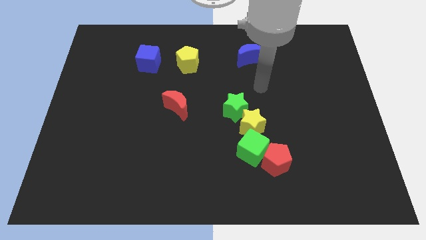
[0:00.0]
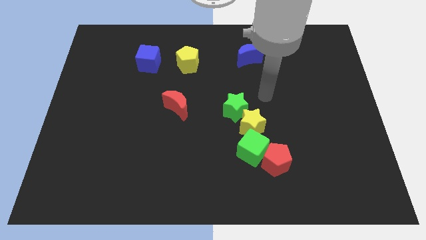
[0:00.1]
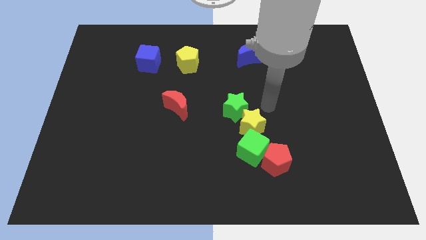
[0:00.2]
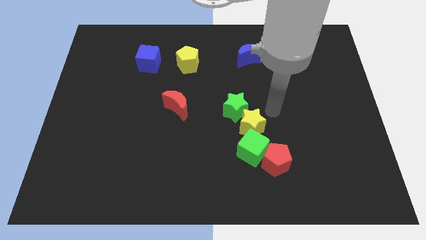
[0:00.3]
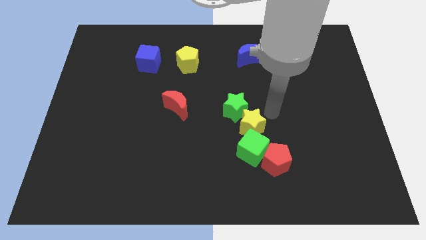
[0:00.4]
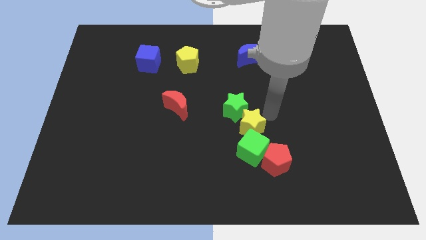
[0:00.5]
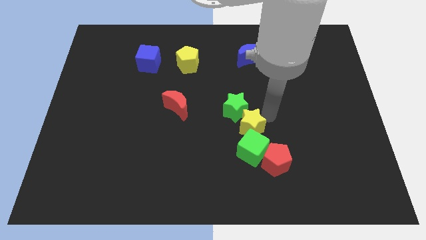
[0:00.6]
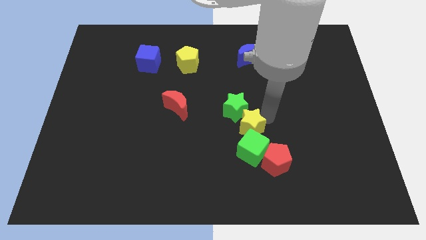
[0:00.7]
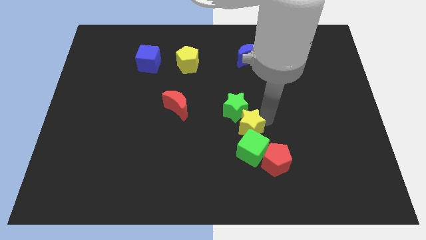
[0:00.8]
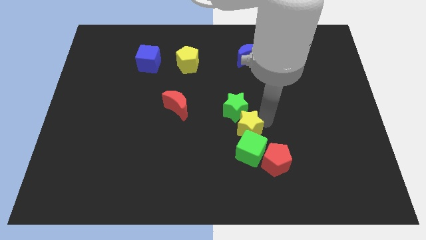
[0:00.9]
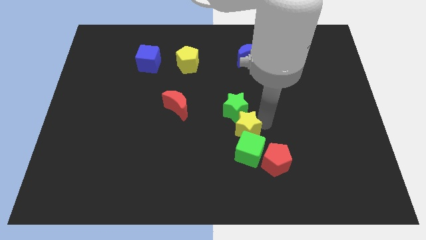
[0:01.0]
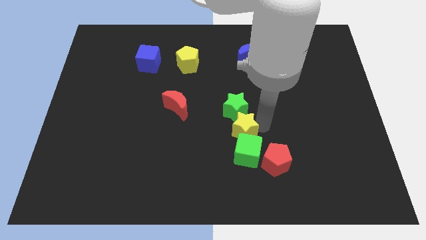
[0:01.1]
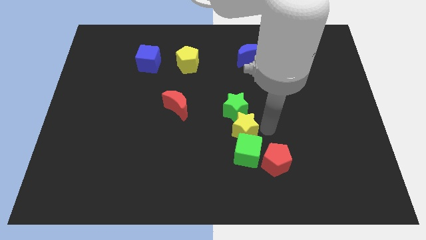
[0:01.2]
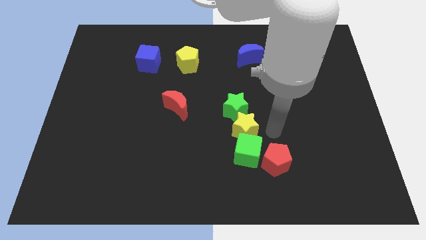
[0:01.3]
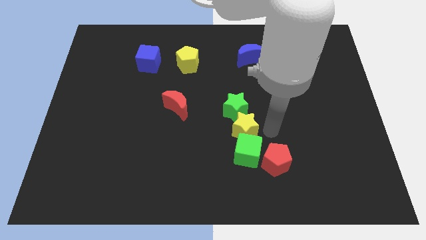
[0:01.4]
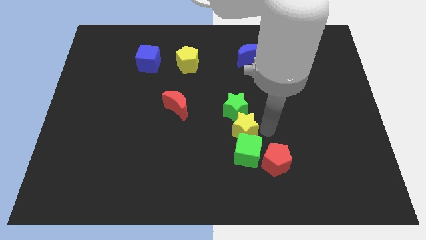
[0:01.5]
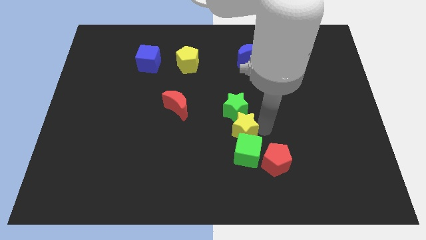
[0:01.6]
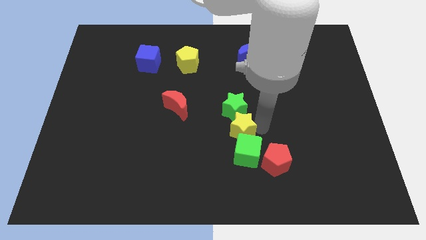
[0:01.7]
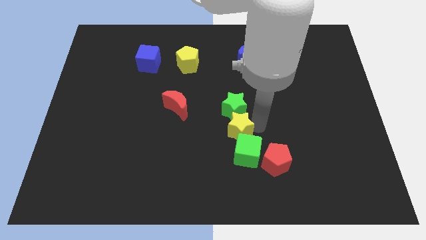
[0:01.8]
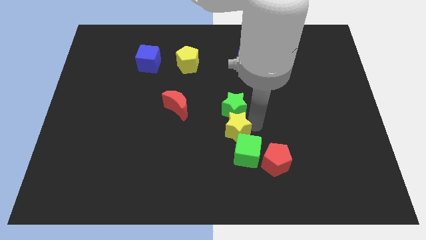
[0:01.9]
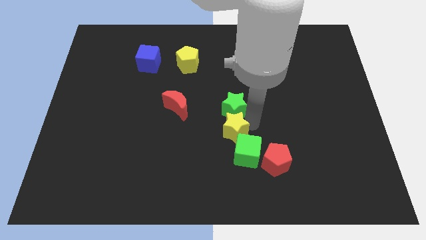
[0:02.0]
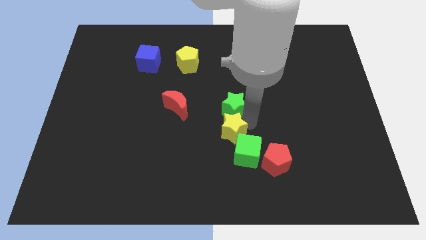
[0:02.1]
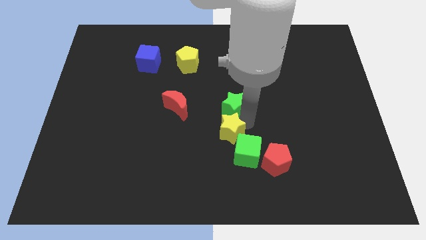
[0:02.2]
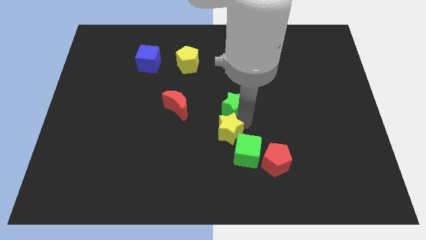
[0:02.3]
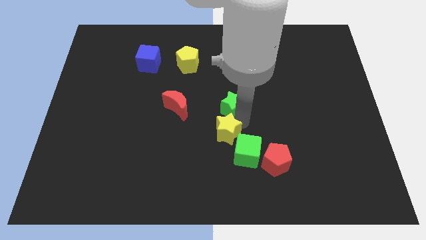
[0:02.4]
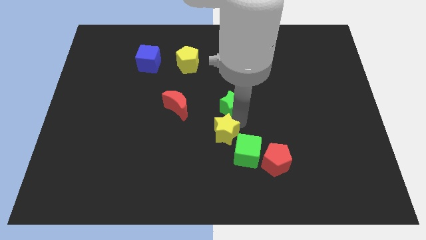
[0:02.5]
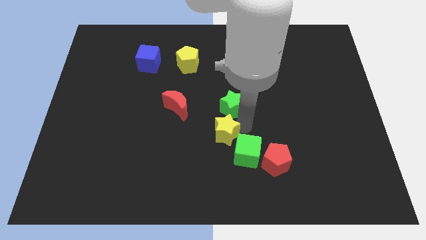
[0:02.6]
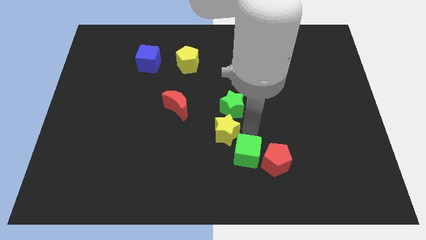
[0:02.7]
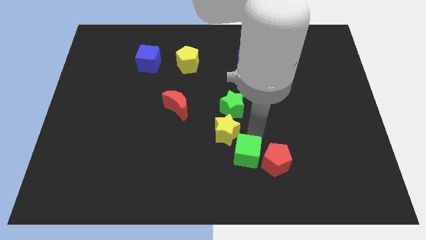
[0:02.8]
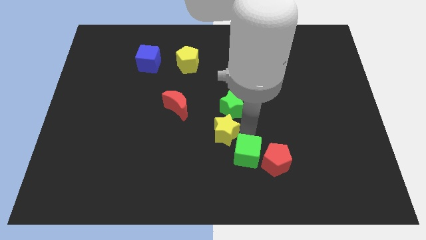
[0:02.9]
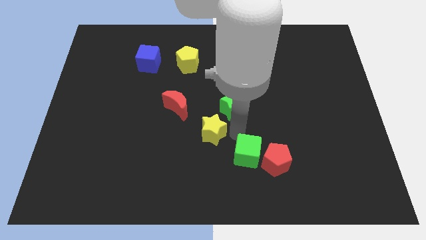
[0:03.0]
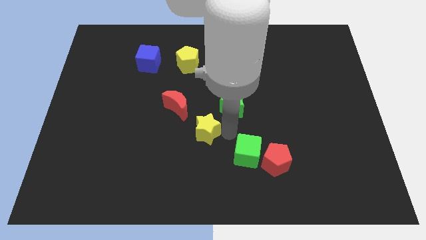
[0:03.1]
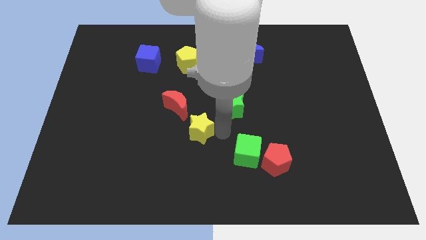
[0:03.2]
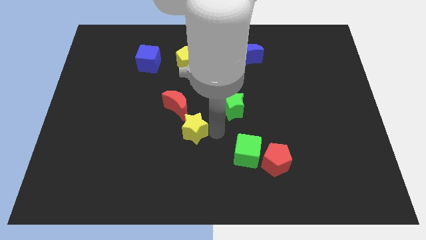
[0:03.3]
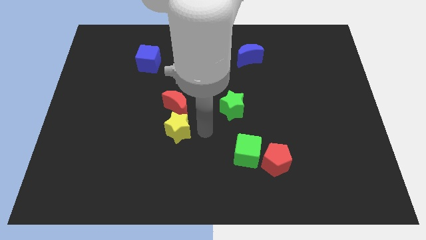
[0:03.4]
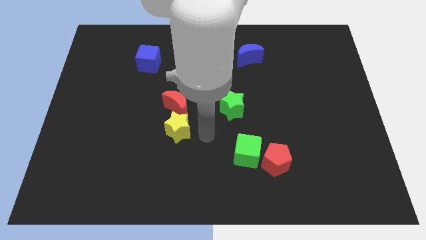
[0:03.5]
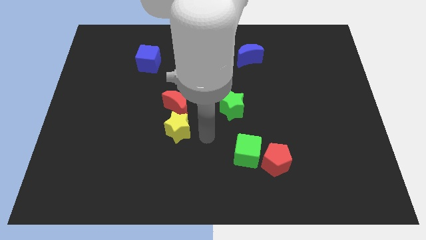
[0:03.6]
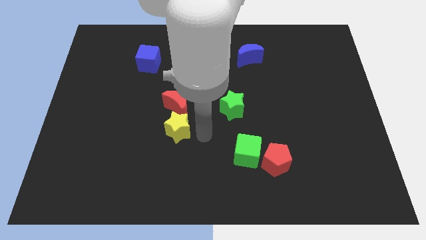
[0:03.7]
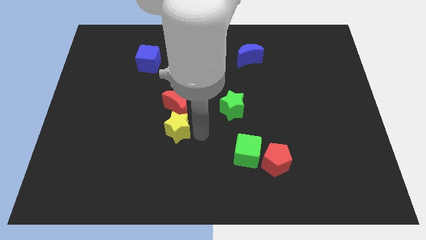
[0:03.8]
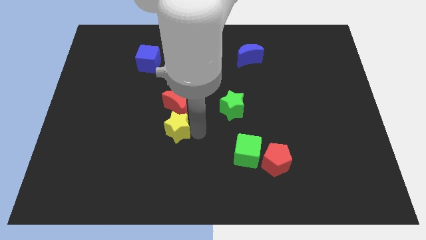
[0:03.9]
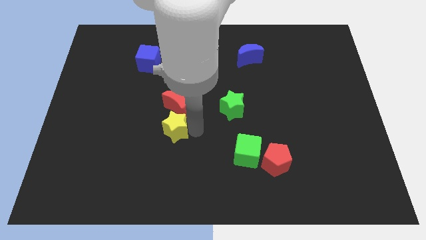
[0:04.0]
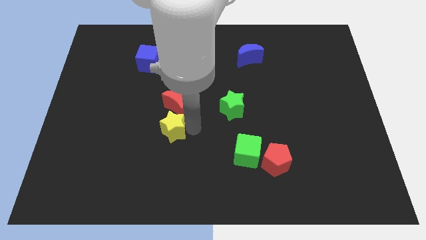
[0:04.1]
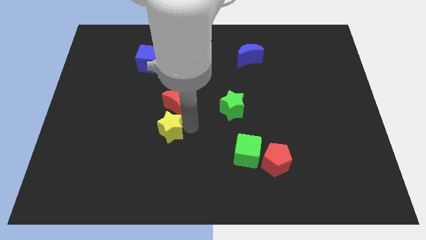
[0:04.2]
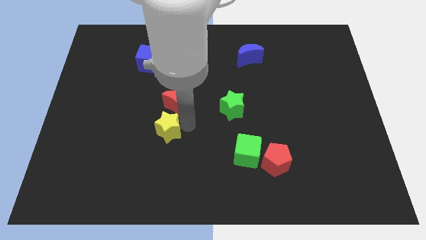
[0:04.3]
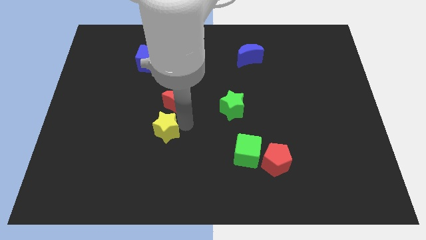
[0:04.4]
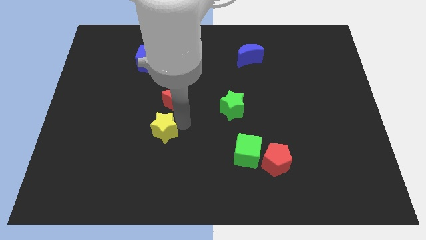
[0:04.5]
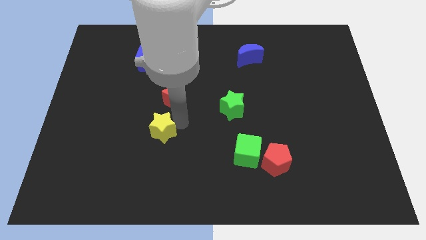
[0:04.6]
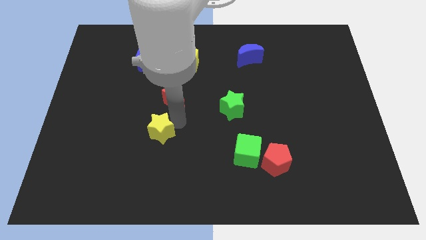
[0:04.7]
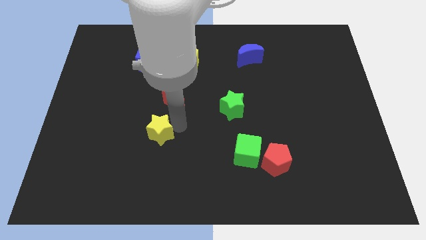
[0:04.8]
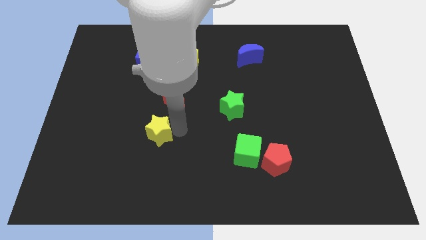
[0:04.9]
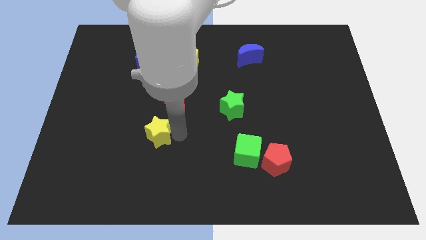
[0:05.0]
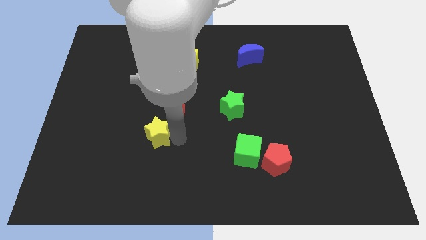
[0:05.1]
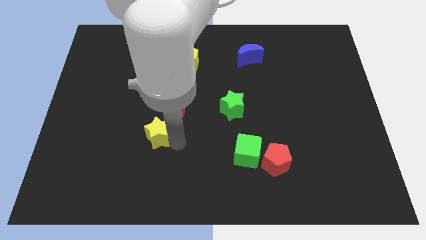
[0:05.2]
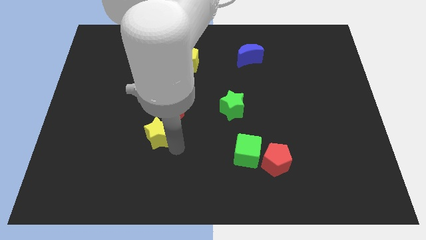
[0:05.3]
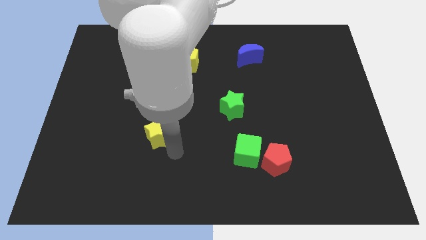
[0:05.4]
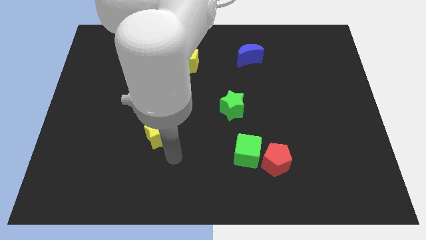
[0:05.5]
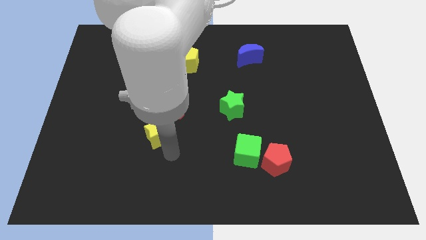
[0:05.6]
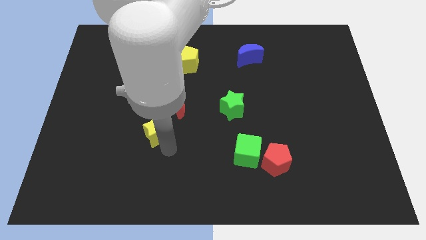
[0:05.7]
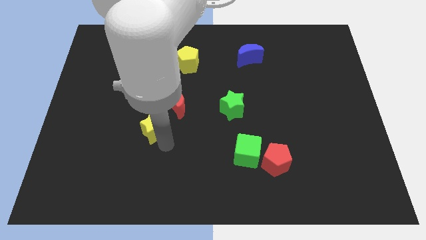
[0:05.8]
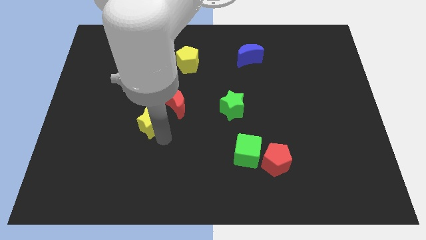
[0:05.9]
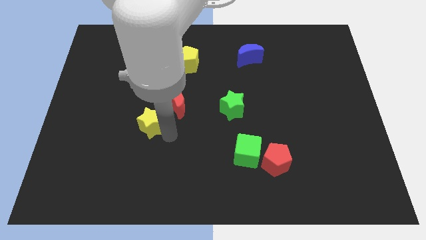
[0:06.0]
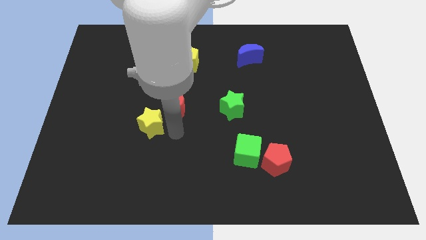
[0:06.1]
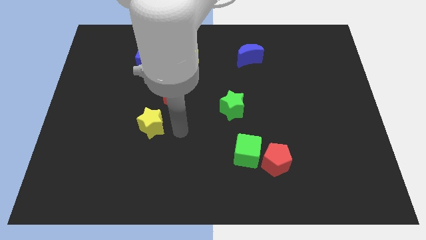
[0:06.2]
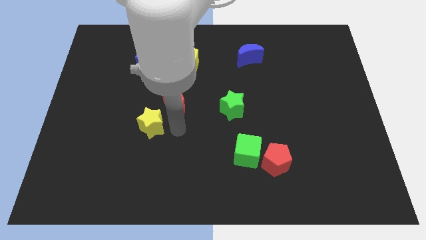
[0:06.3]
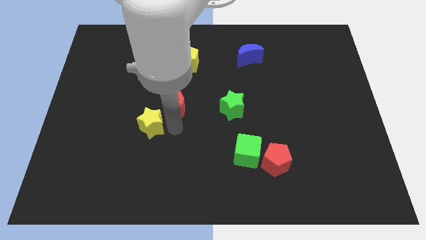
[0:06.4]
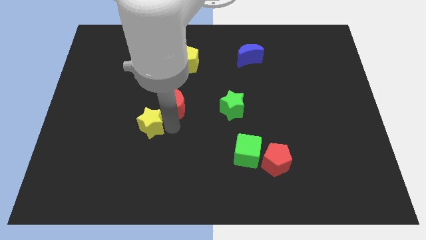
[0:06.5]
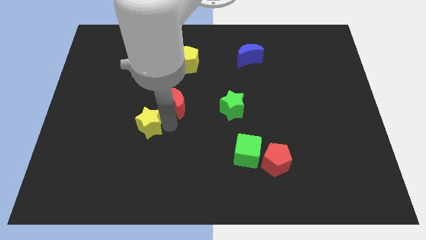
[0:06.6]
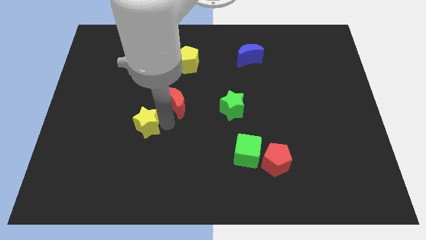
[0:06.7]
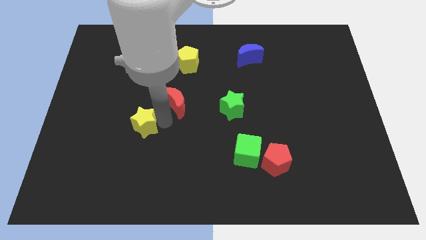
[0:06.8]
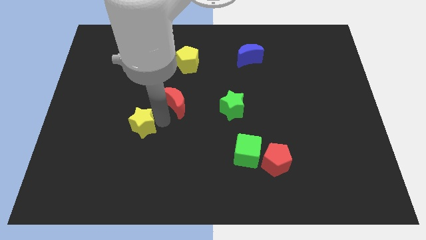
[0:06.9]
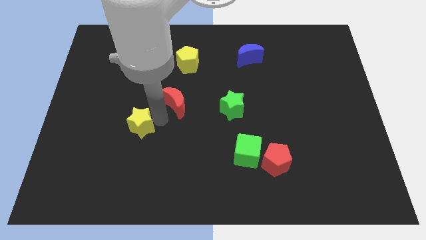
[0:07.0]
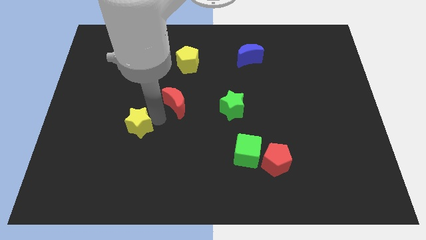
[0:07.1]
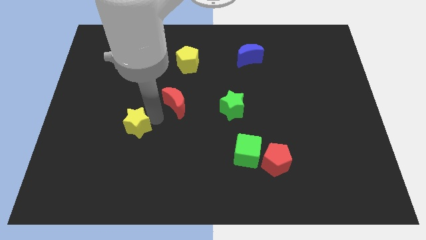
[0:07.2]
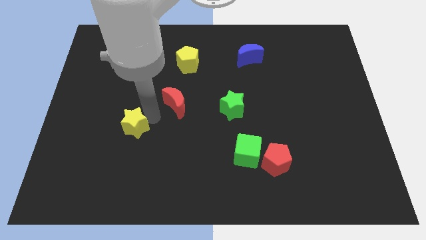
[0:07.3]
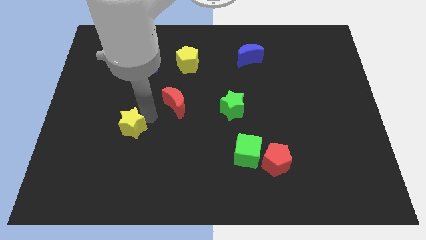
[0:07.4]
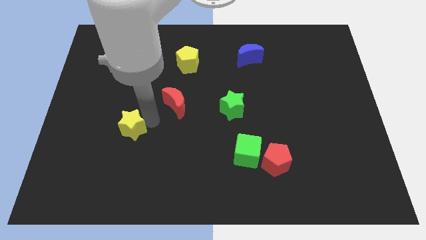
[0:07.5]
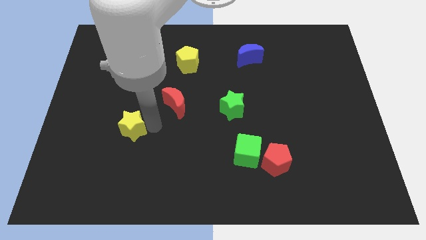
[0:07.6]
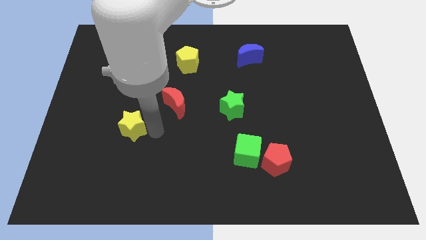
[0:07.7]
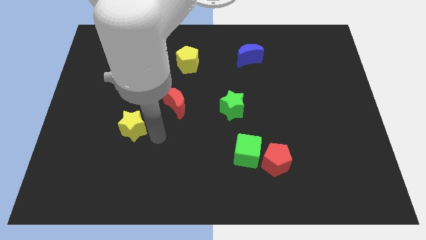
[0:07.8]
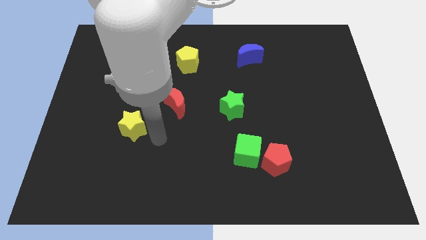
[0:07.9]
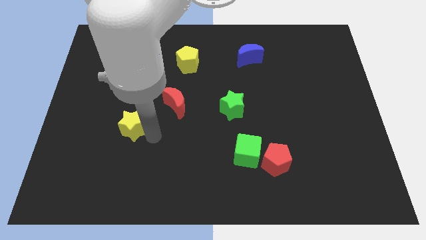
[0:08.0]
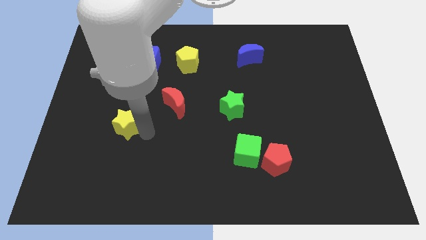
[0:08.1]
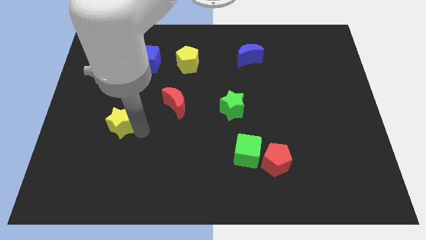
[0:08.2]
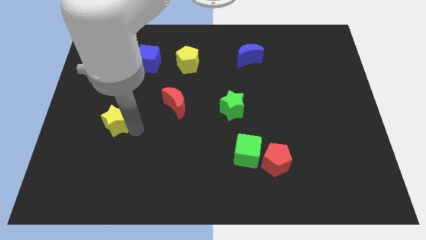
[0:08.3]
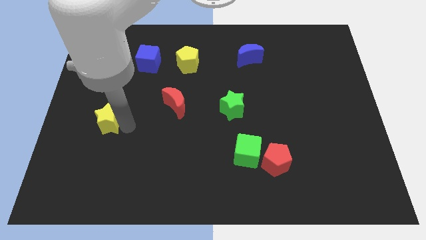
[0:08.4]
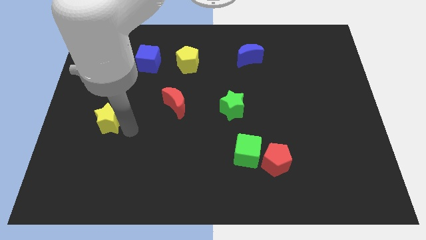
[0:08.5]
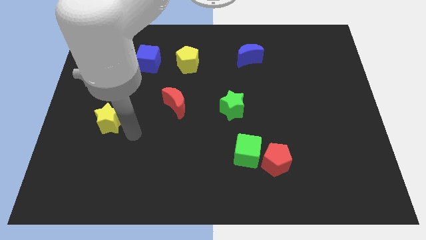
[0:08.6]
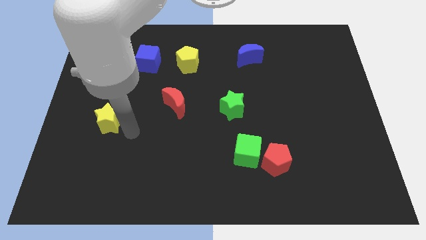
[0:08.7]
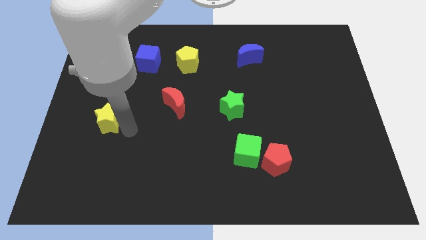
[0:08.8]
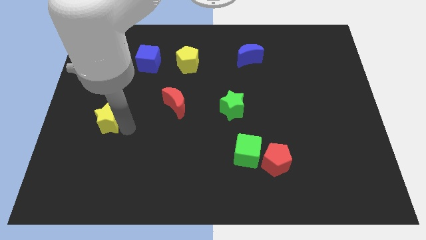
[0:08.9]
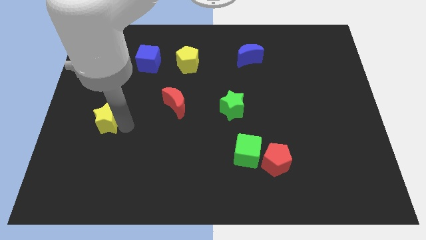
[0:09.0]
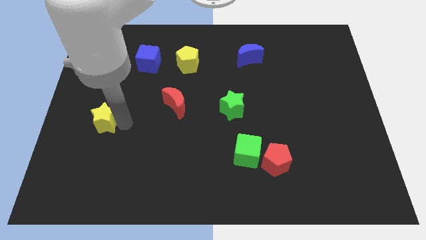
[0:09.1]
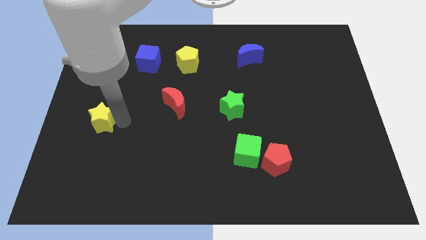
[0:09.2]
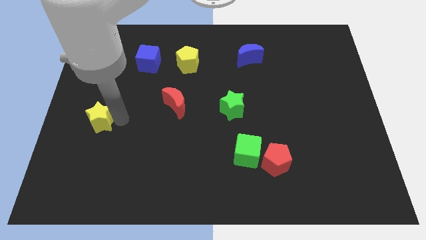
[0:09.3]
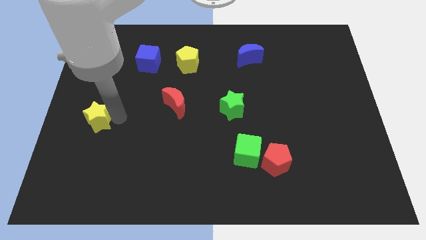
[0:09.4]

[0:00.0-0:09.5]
move the yellow star to the left side of the board
